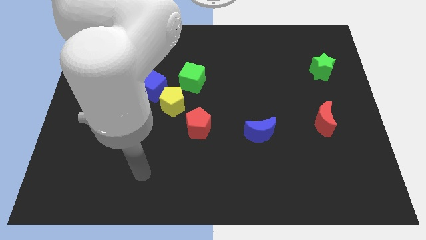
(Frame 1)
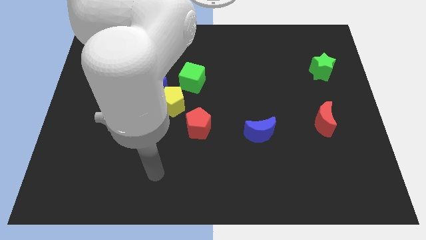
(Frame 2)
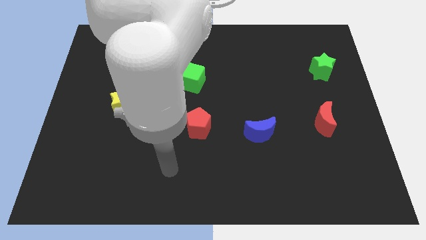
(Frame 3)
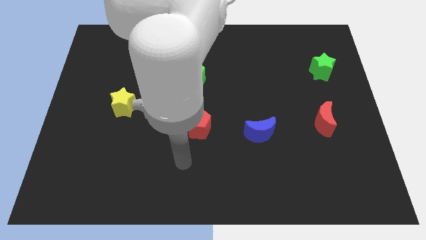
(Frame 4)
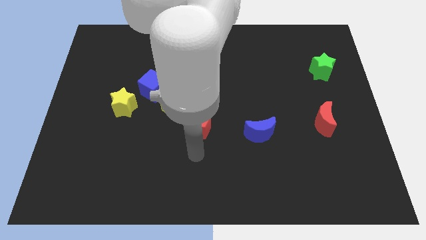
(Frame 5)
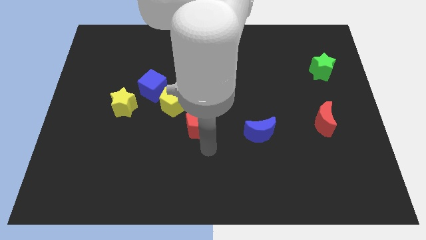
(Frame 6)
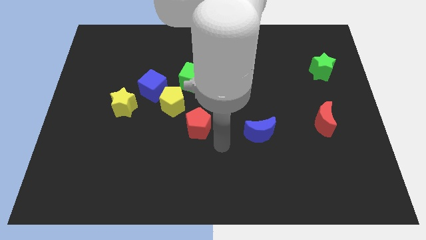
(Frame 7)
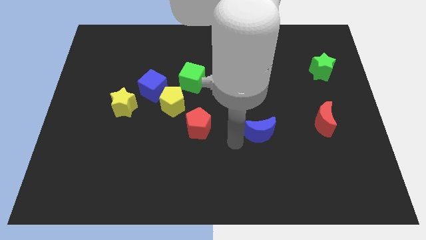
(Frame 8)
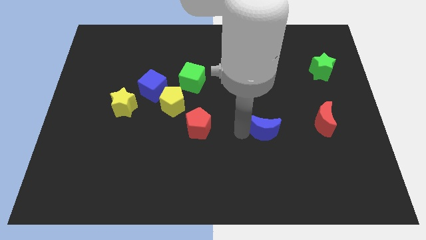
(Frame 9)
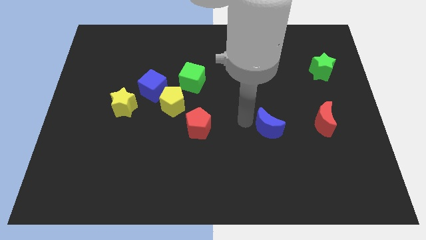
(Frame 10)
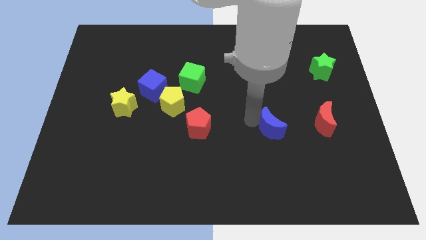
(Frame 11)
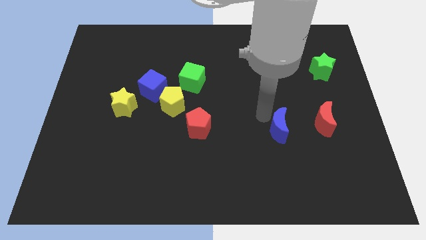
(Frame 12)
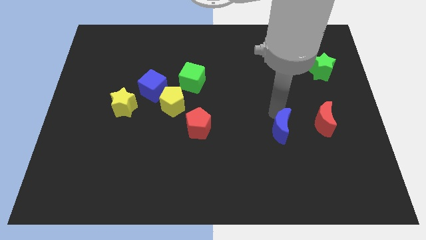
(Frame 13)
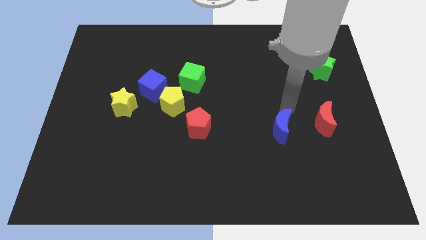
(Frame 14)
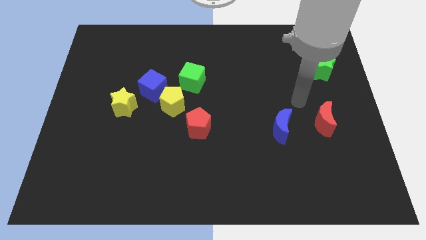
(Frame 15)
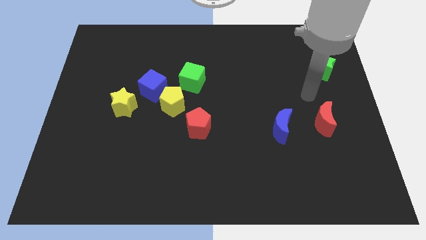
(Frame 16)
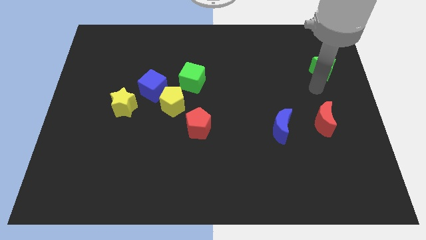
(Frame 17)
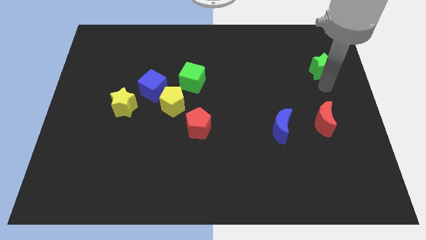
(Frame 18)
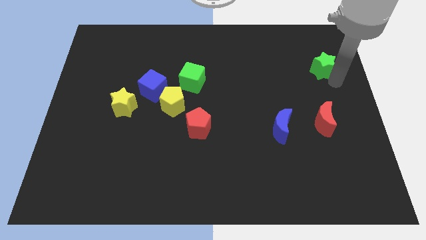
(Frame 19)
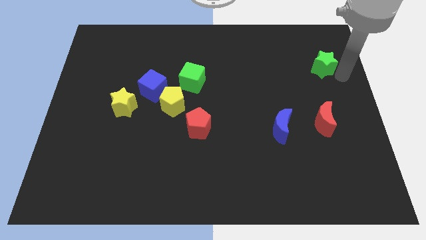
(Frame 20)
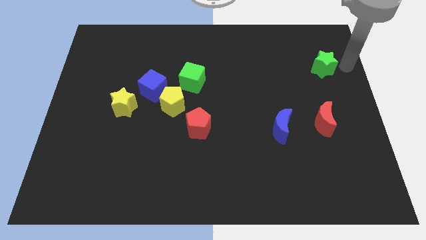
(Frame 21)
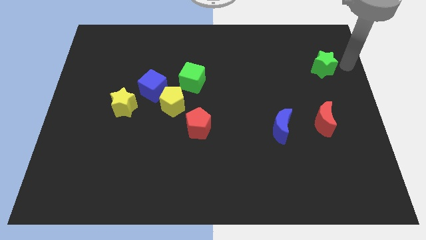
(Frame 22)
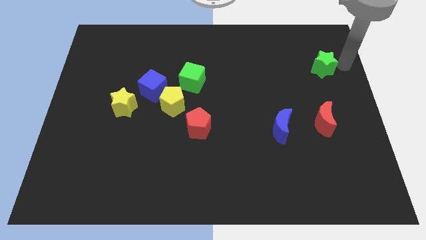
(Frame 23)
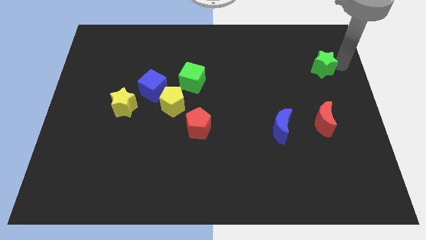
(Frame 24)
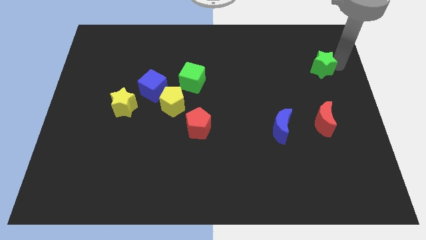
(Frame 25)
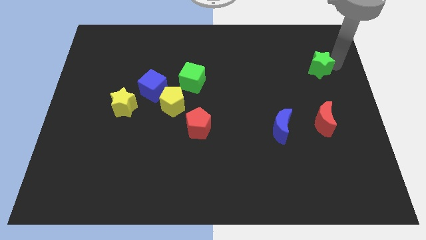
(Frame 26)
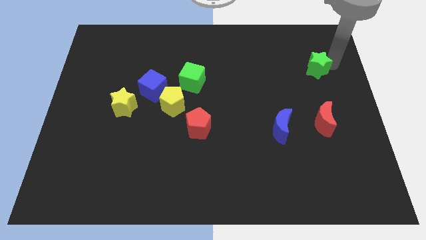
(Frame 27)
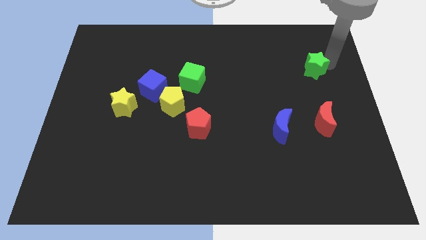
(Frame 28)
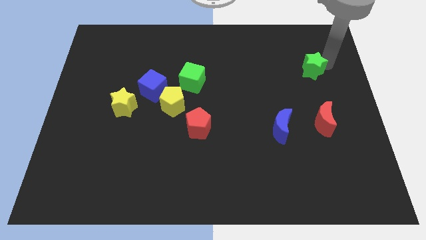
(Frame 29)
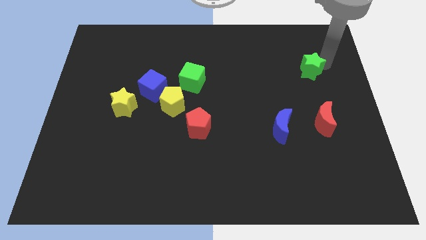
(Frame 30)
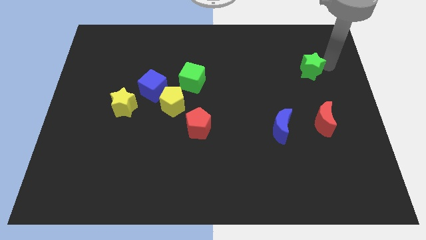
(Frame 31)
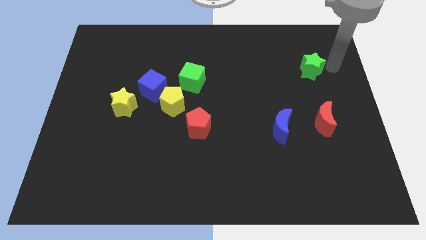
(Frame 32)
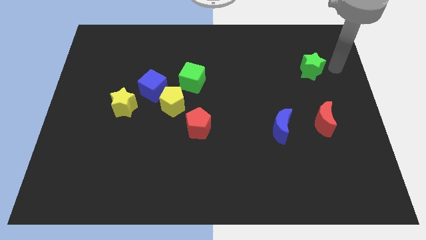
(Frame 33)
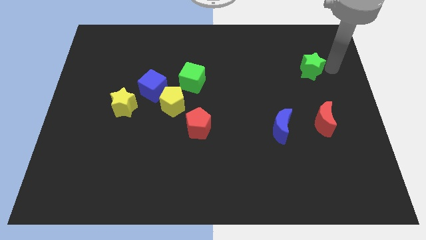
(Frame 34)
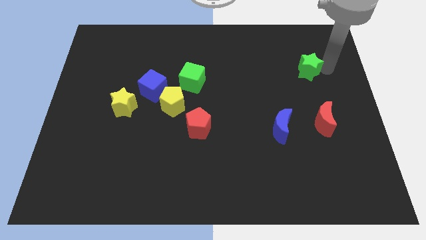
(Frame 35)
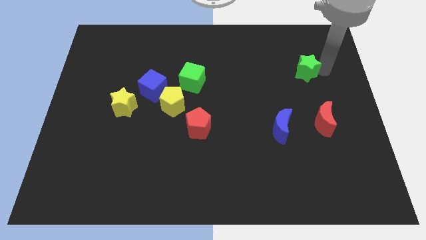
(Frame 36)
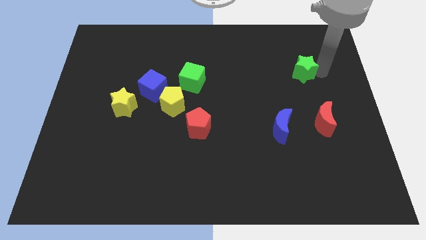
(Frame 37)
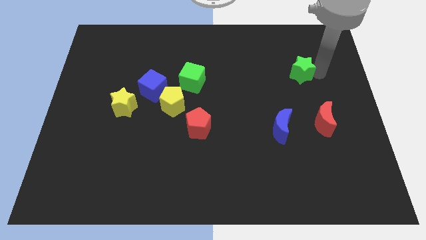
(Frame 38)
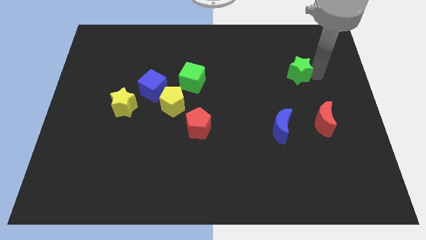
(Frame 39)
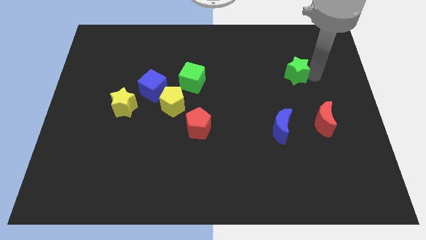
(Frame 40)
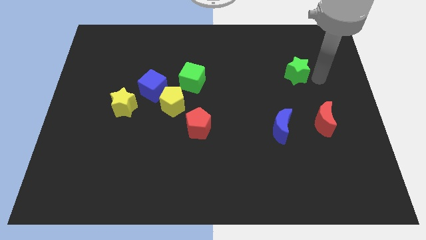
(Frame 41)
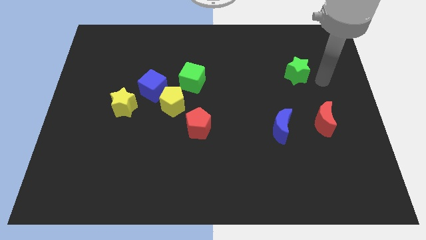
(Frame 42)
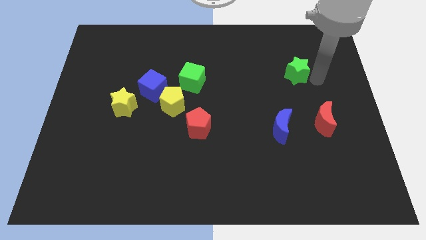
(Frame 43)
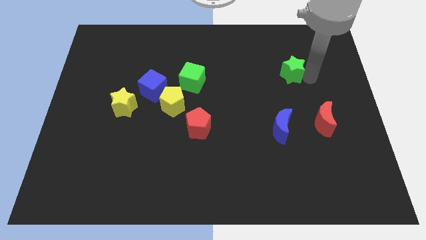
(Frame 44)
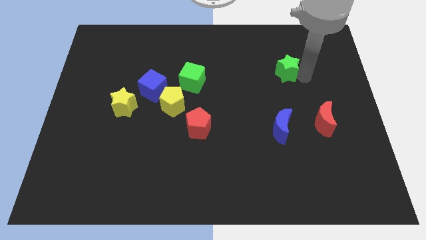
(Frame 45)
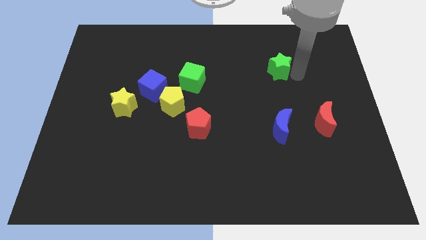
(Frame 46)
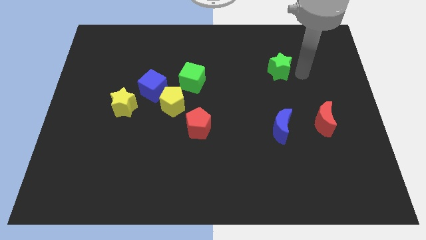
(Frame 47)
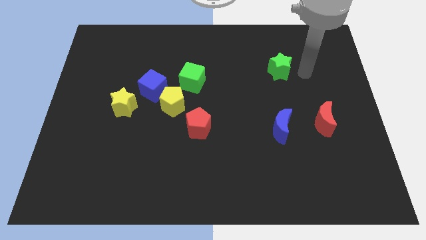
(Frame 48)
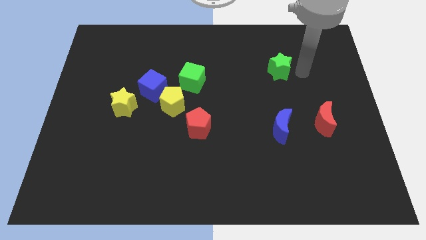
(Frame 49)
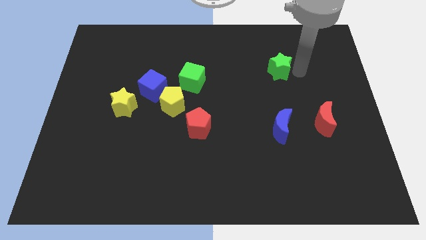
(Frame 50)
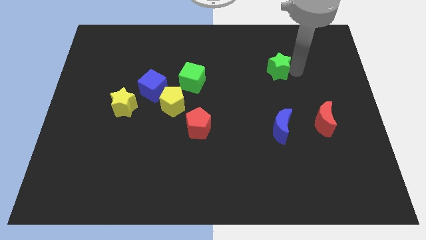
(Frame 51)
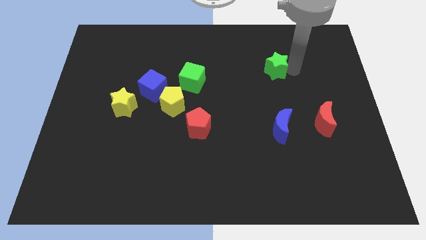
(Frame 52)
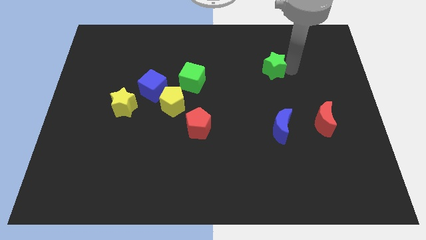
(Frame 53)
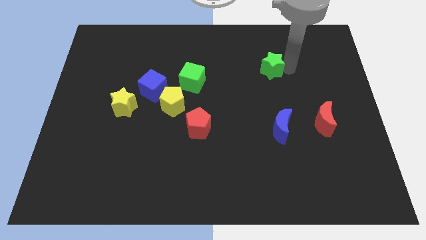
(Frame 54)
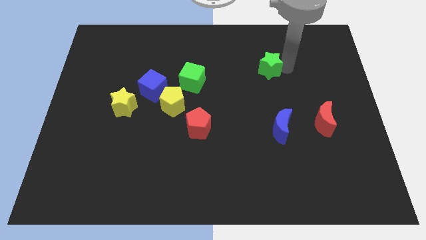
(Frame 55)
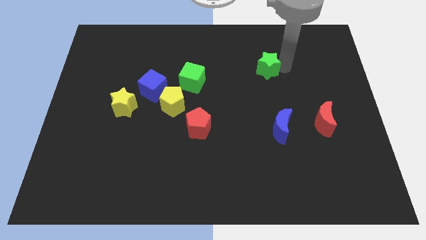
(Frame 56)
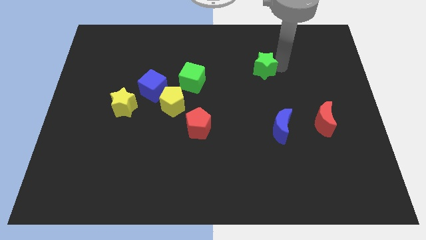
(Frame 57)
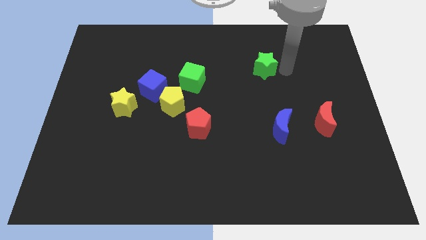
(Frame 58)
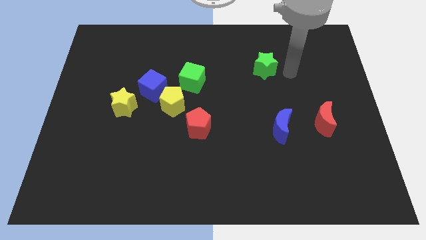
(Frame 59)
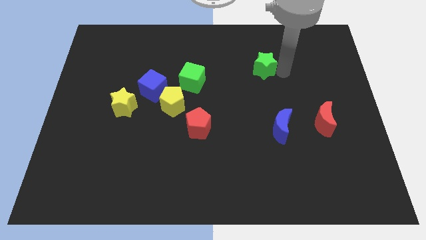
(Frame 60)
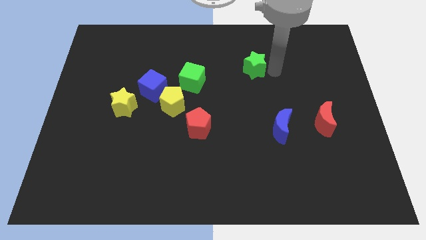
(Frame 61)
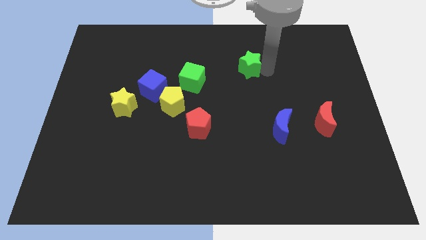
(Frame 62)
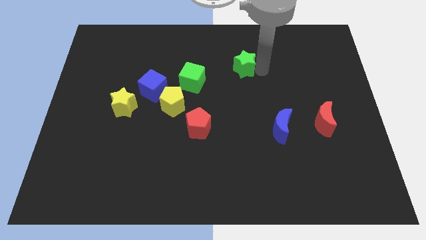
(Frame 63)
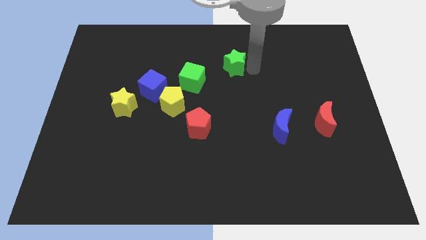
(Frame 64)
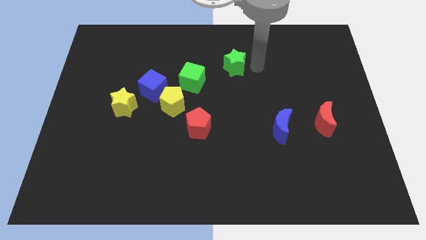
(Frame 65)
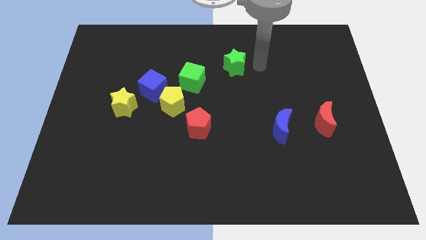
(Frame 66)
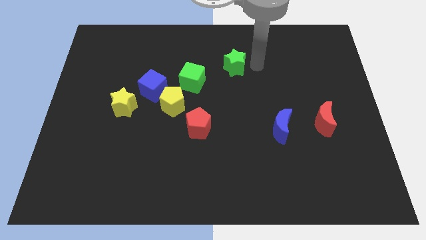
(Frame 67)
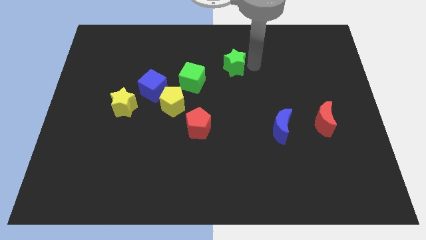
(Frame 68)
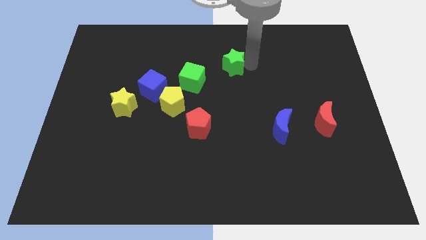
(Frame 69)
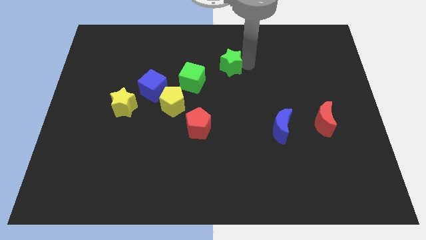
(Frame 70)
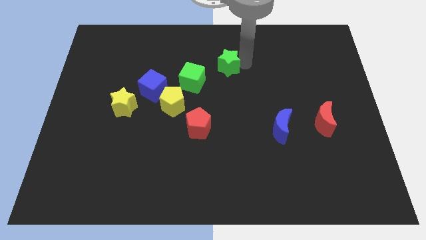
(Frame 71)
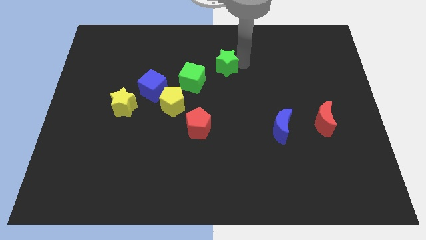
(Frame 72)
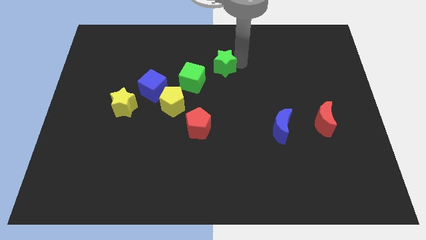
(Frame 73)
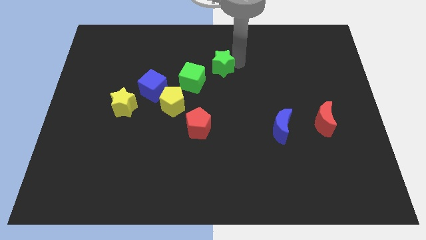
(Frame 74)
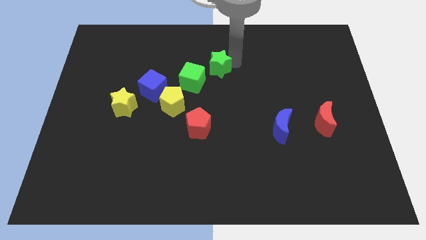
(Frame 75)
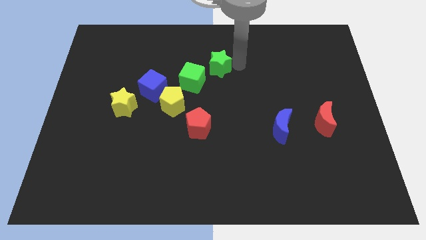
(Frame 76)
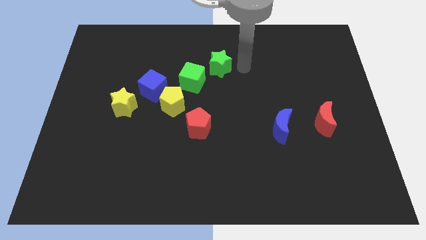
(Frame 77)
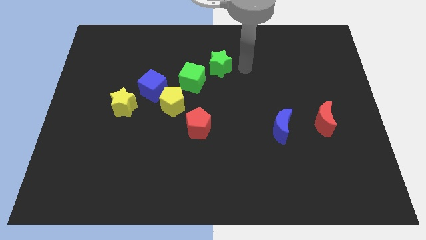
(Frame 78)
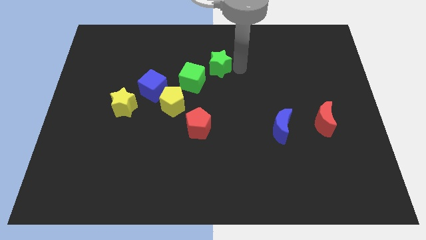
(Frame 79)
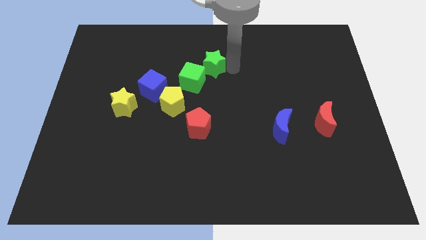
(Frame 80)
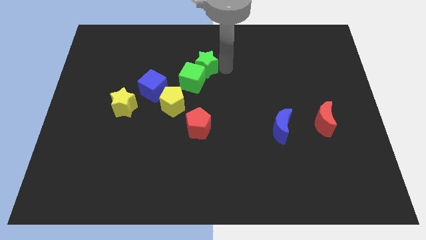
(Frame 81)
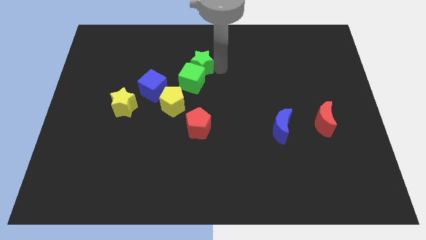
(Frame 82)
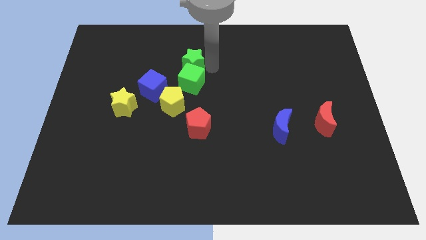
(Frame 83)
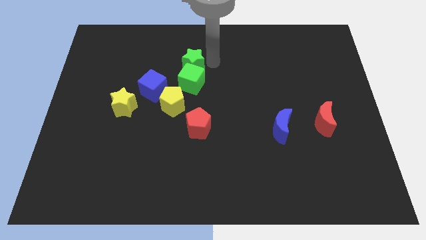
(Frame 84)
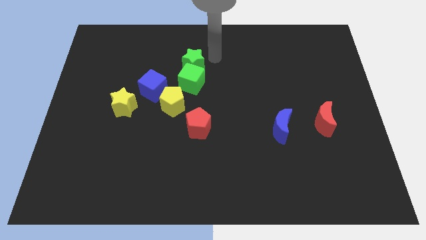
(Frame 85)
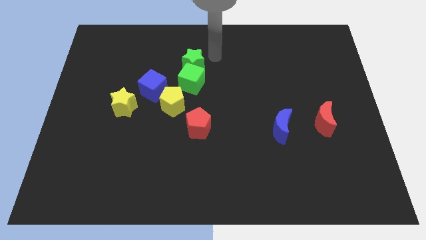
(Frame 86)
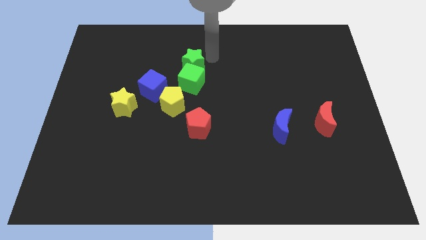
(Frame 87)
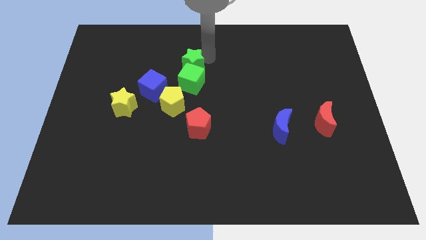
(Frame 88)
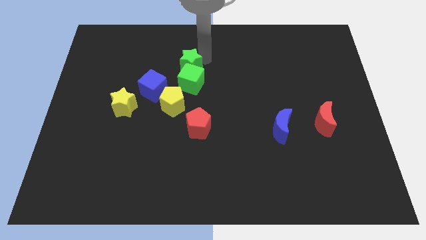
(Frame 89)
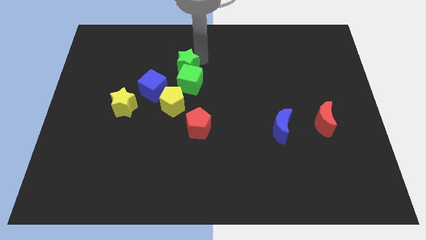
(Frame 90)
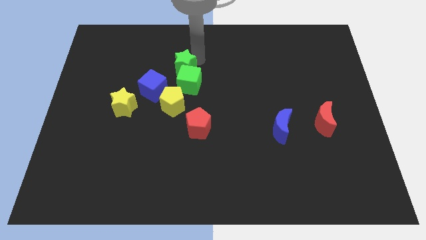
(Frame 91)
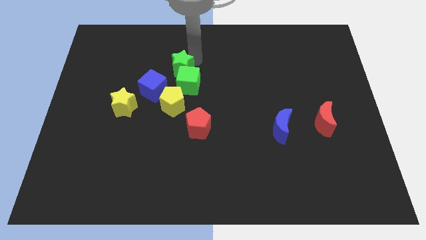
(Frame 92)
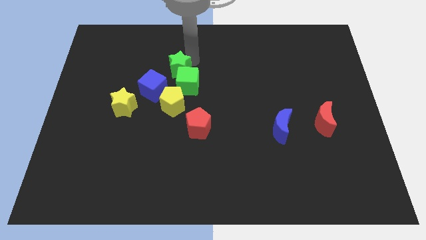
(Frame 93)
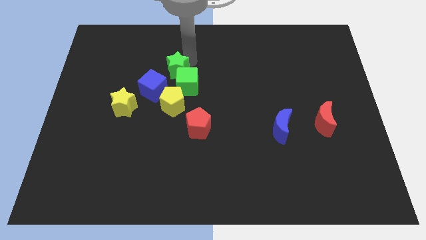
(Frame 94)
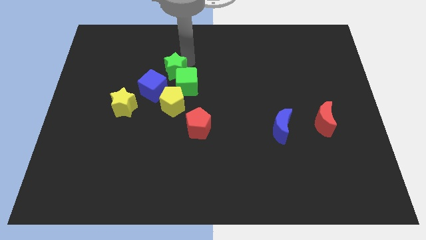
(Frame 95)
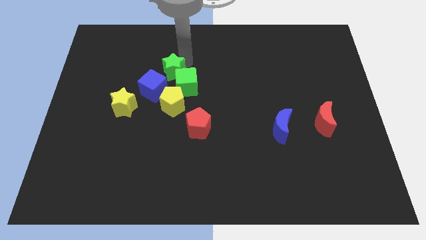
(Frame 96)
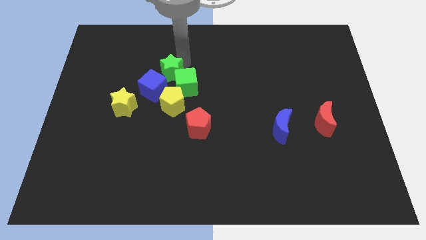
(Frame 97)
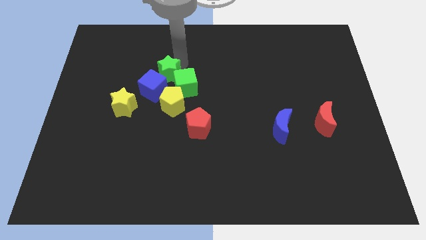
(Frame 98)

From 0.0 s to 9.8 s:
slide the green star next to the blue cube
